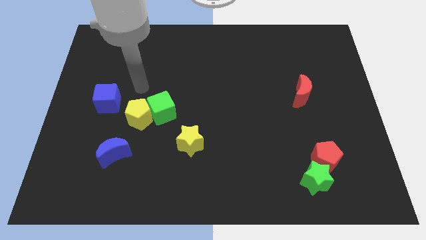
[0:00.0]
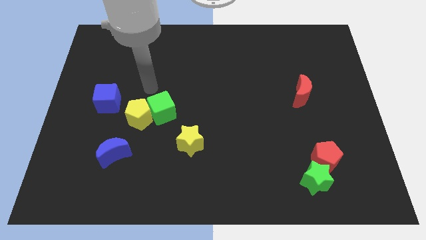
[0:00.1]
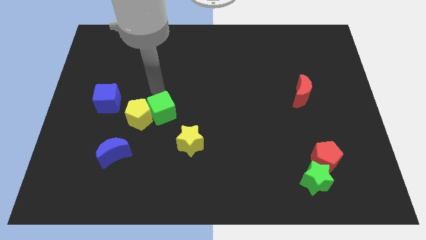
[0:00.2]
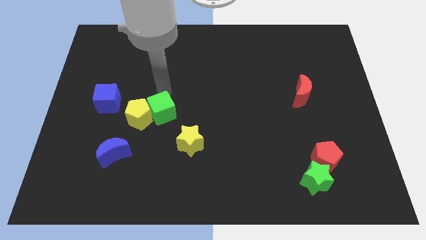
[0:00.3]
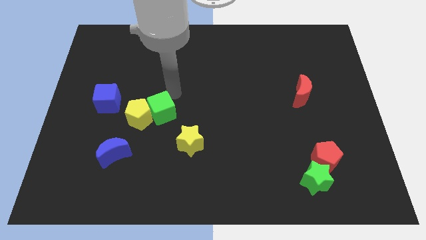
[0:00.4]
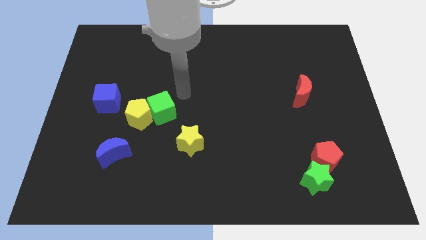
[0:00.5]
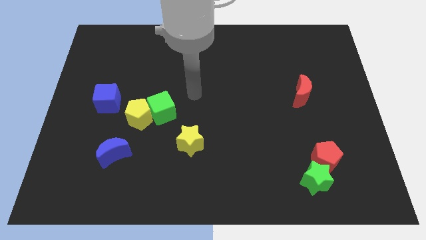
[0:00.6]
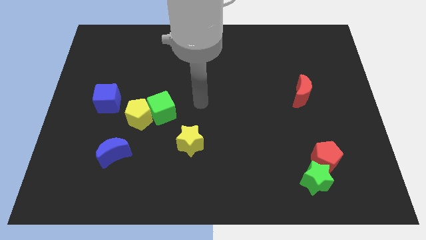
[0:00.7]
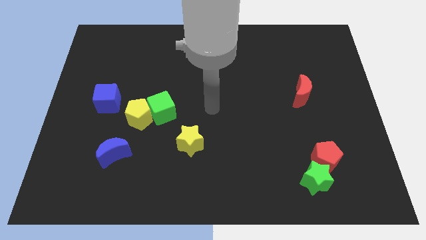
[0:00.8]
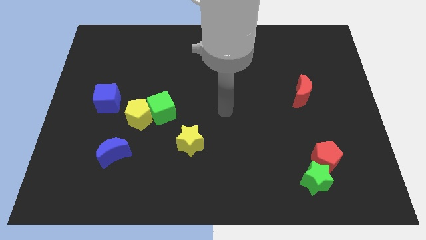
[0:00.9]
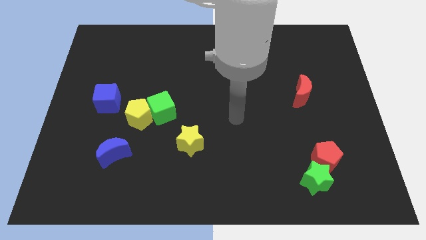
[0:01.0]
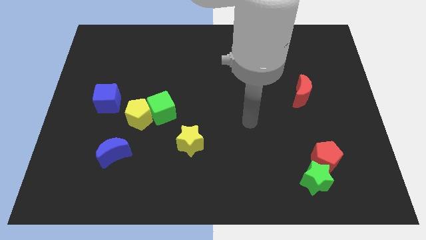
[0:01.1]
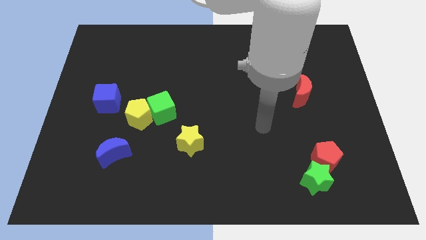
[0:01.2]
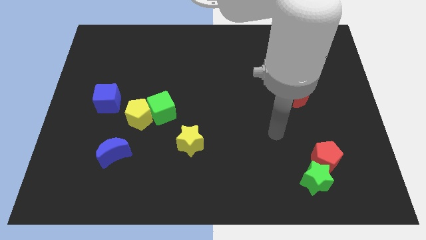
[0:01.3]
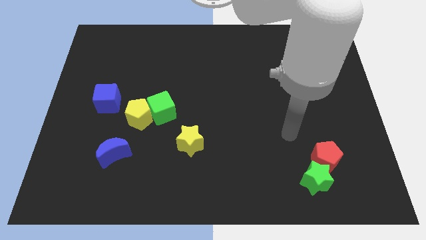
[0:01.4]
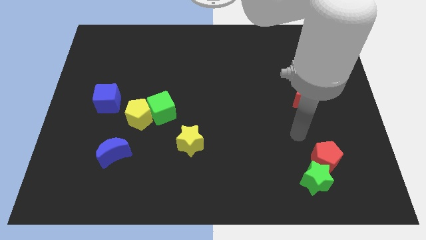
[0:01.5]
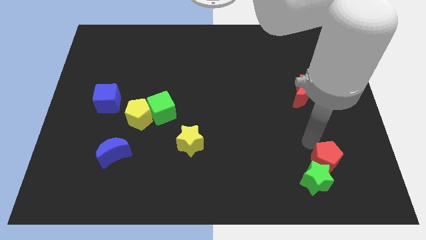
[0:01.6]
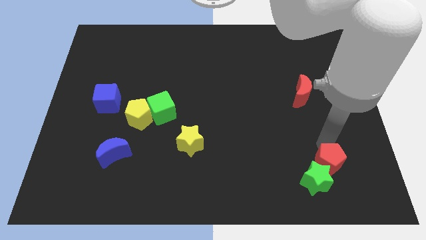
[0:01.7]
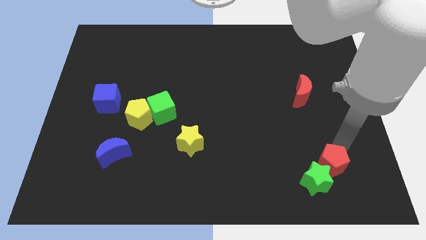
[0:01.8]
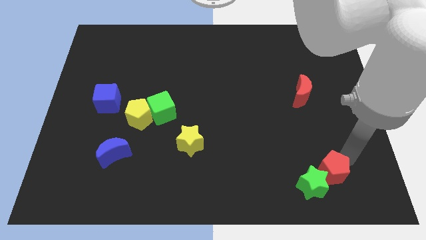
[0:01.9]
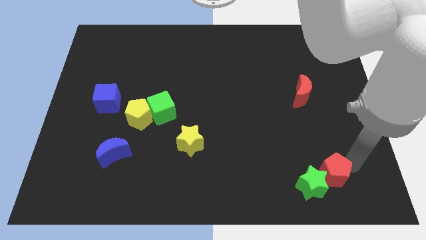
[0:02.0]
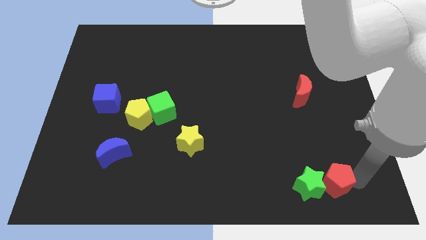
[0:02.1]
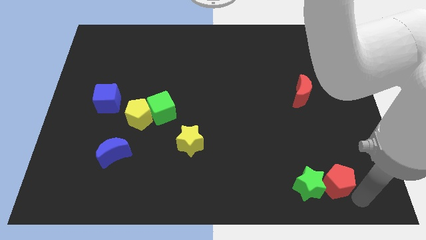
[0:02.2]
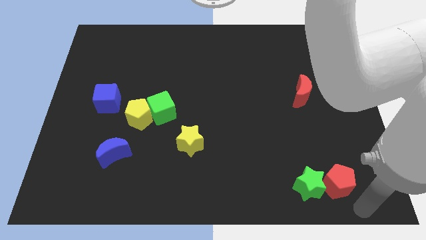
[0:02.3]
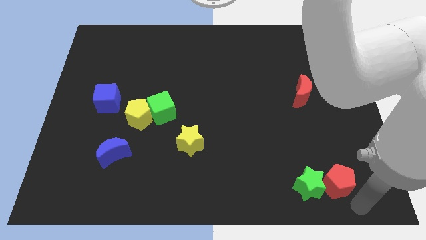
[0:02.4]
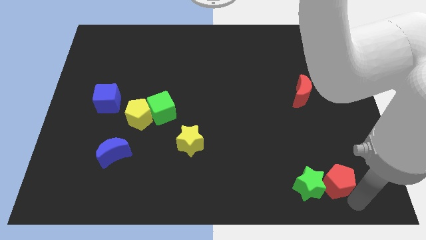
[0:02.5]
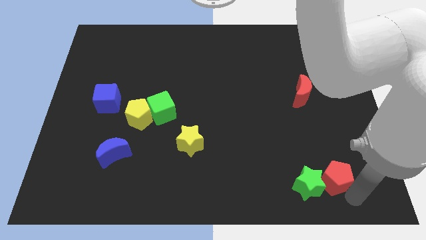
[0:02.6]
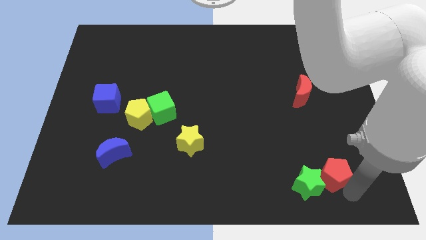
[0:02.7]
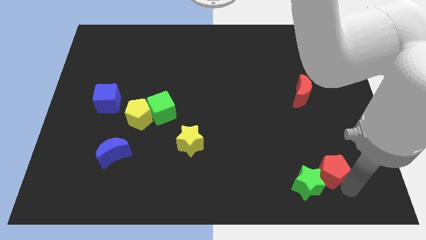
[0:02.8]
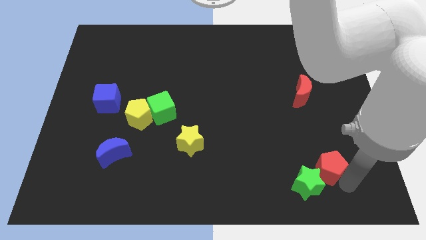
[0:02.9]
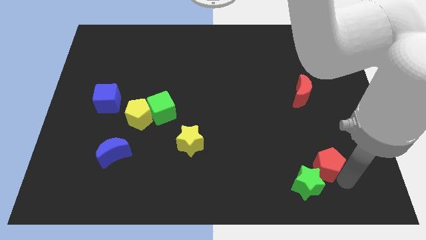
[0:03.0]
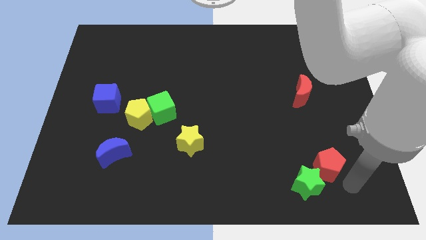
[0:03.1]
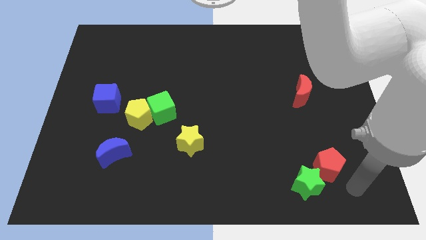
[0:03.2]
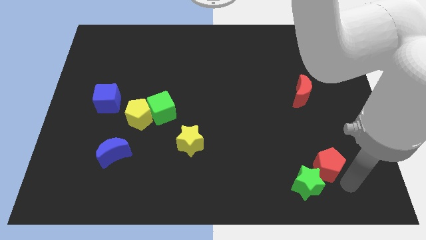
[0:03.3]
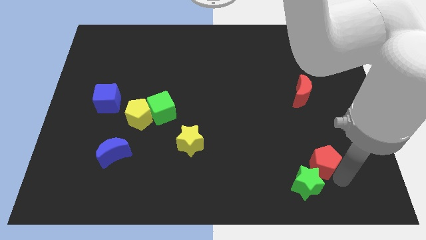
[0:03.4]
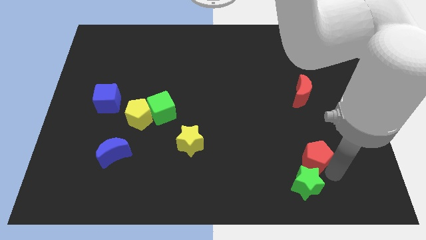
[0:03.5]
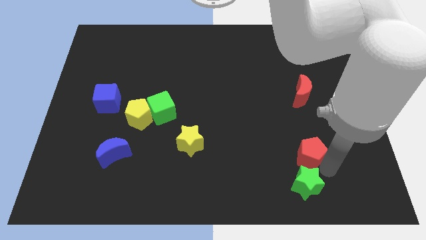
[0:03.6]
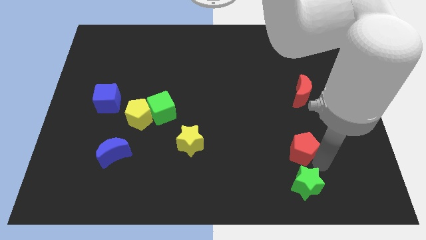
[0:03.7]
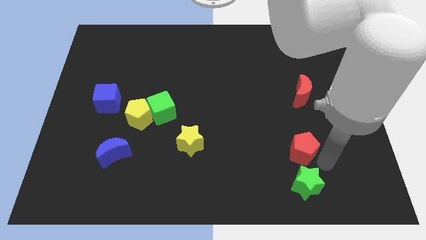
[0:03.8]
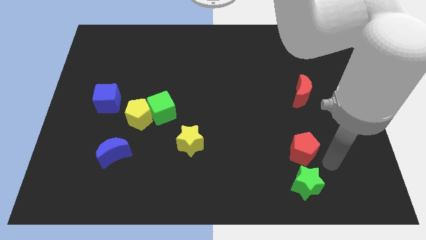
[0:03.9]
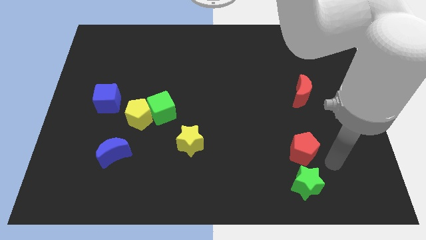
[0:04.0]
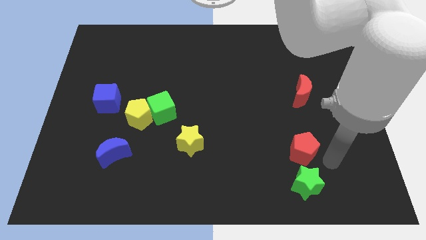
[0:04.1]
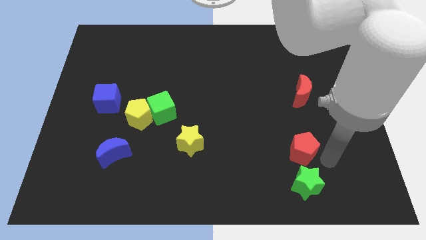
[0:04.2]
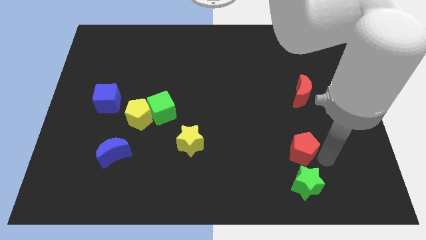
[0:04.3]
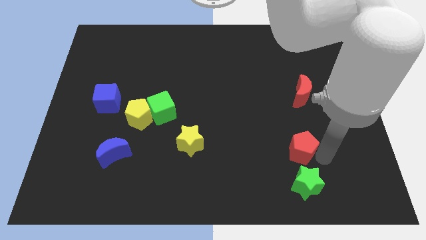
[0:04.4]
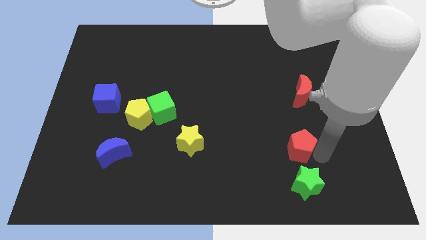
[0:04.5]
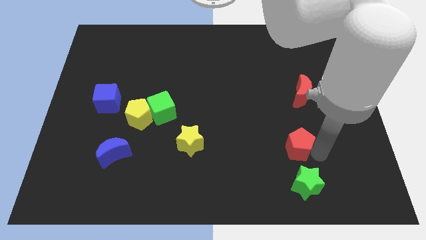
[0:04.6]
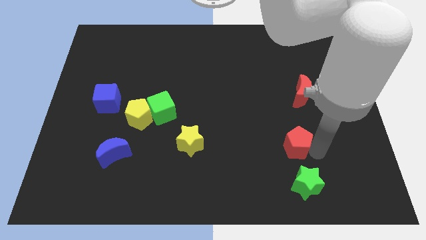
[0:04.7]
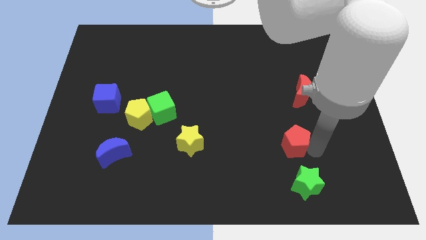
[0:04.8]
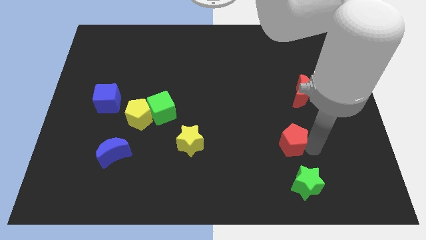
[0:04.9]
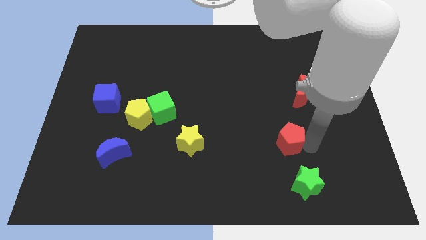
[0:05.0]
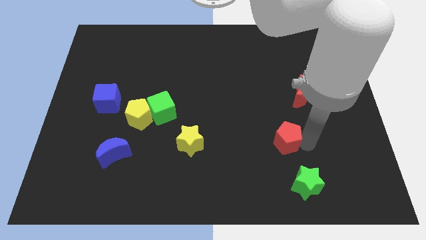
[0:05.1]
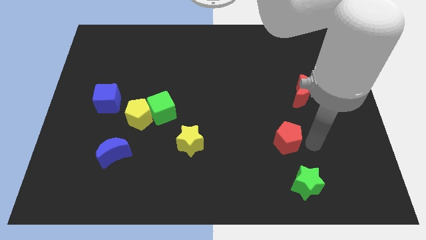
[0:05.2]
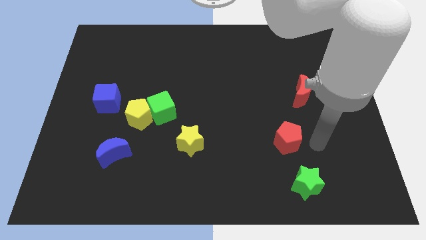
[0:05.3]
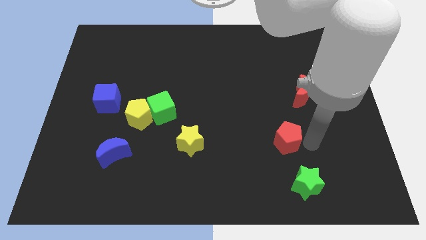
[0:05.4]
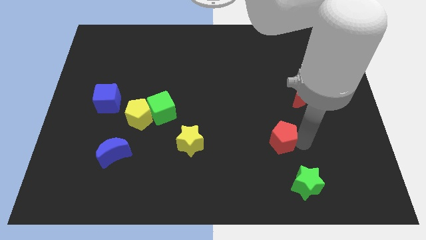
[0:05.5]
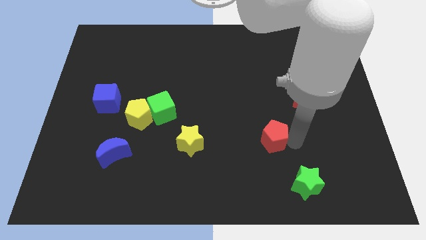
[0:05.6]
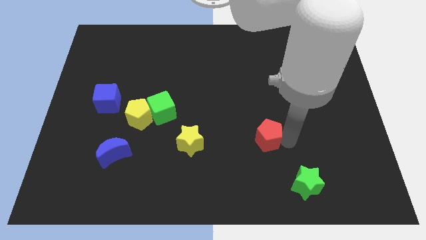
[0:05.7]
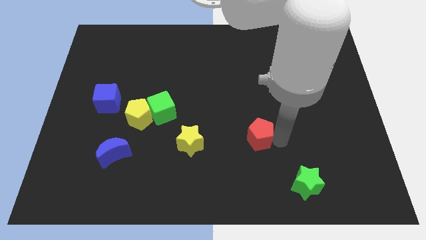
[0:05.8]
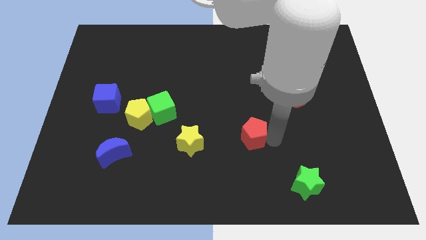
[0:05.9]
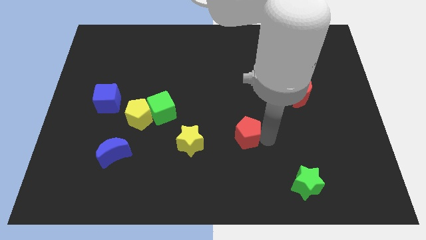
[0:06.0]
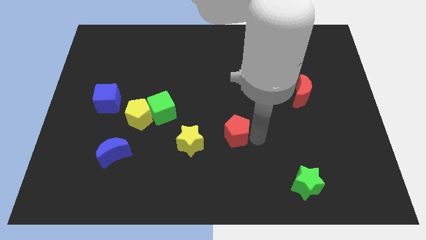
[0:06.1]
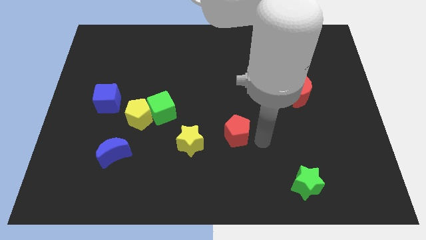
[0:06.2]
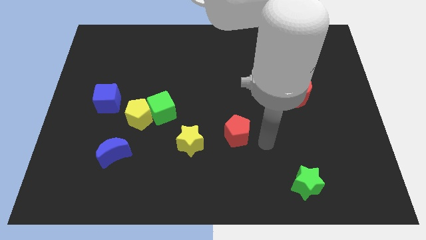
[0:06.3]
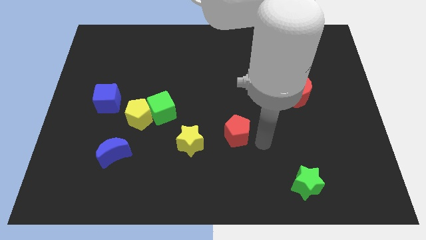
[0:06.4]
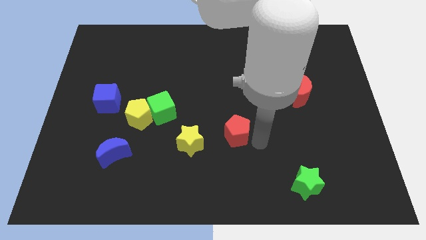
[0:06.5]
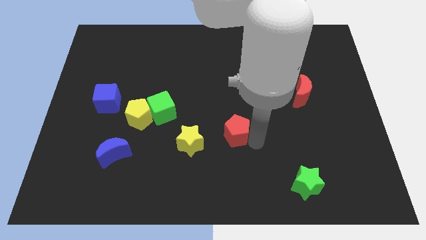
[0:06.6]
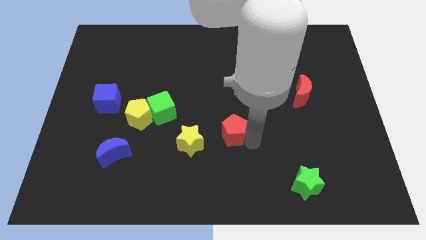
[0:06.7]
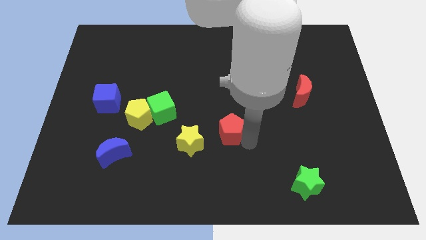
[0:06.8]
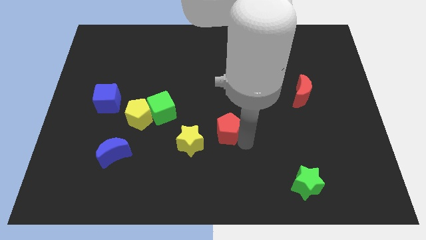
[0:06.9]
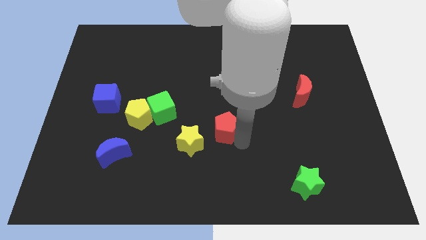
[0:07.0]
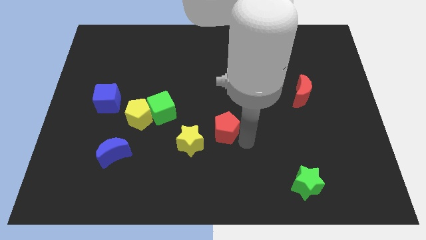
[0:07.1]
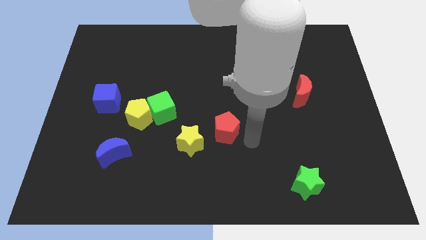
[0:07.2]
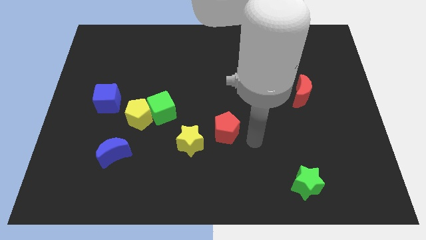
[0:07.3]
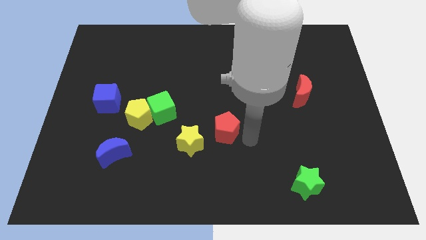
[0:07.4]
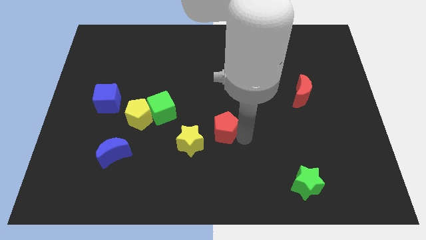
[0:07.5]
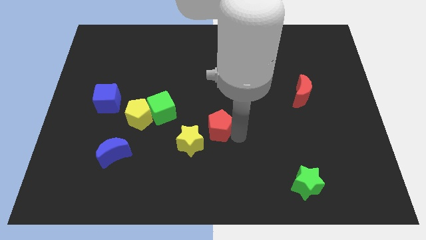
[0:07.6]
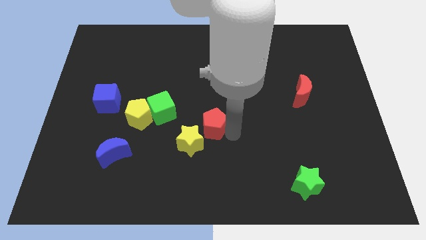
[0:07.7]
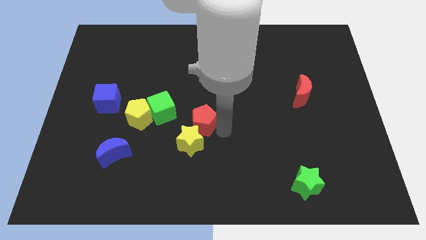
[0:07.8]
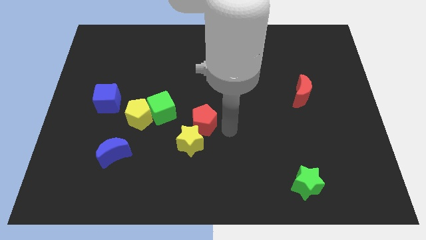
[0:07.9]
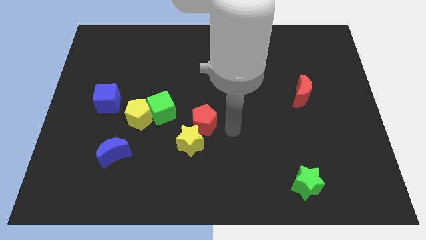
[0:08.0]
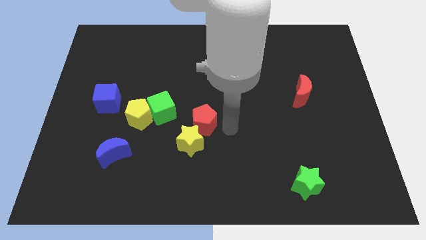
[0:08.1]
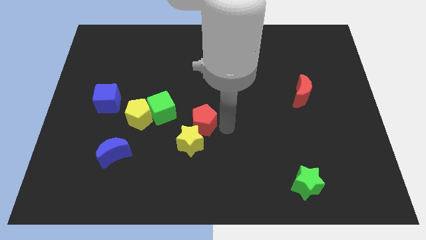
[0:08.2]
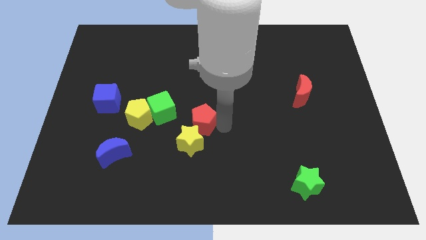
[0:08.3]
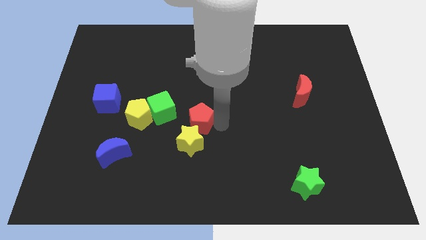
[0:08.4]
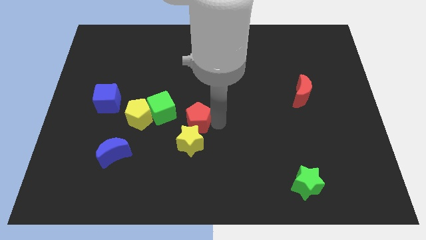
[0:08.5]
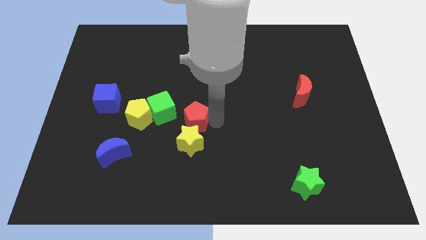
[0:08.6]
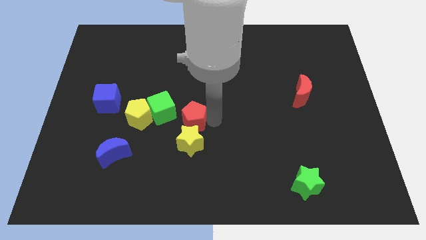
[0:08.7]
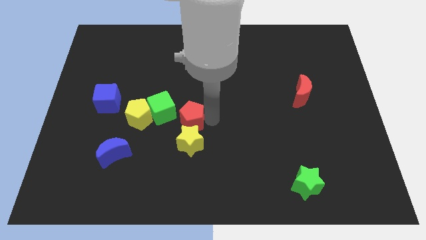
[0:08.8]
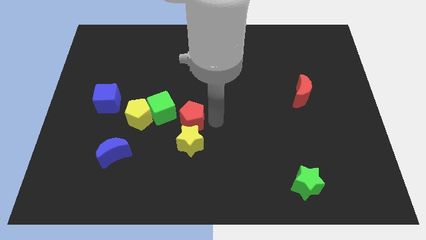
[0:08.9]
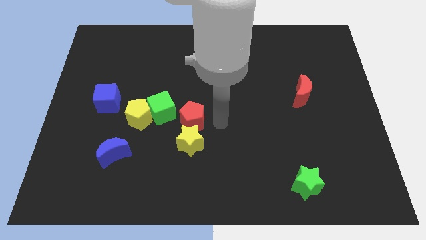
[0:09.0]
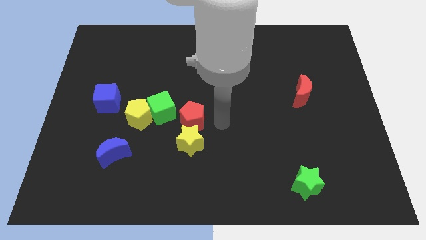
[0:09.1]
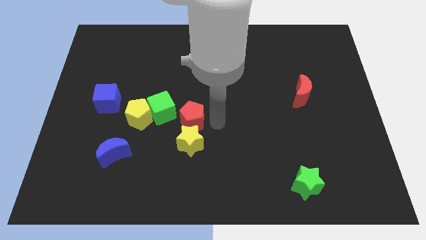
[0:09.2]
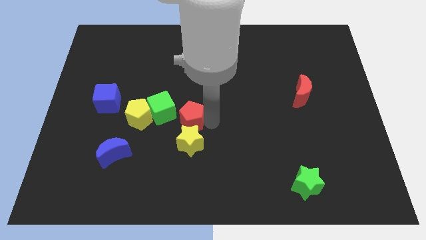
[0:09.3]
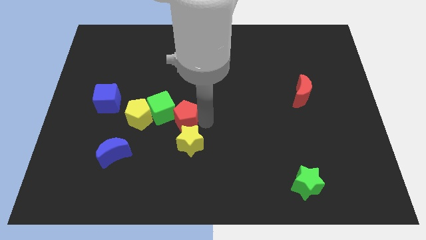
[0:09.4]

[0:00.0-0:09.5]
slide the red pentagon close to the green cube
